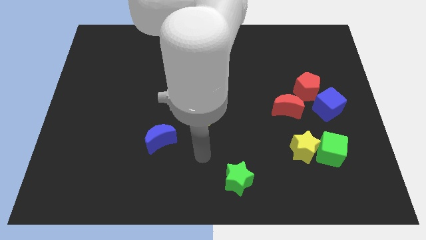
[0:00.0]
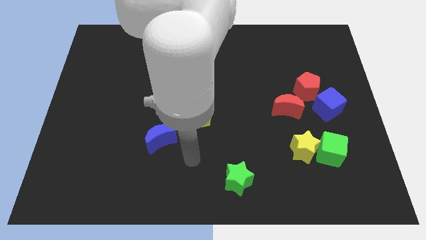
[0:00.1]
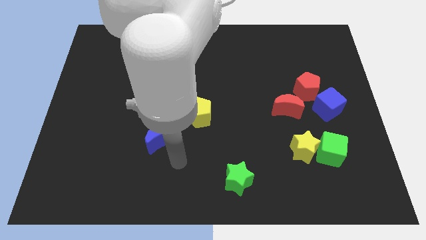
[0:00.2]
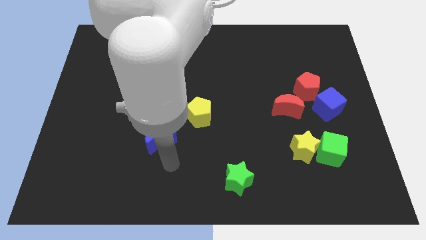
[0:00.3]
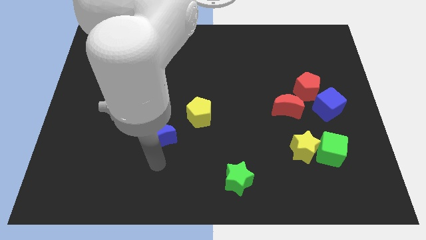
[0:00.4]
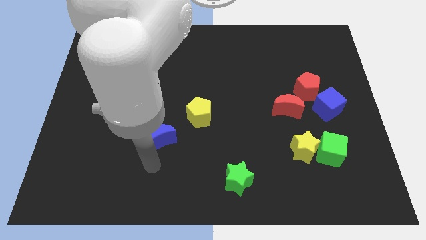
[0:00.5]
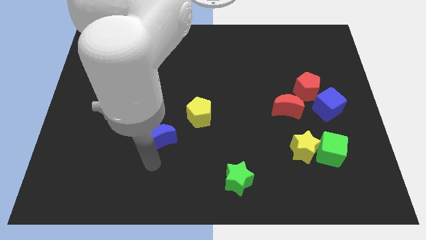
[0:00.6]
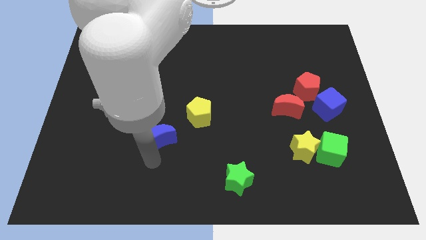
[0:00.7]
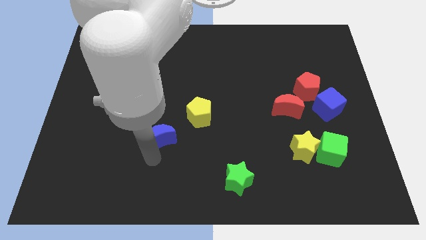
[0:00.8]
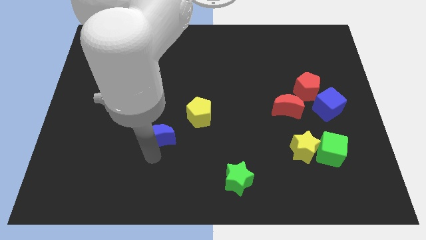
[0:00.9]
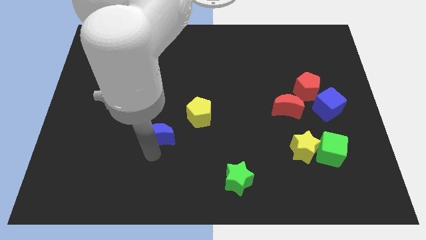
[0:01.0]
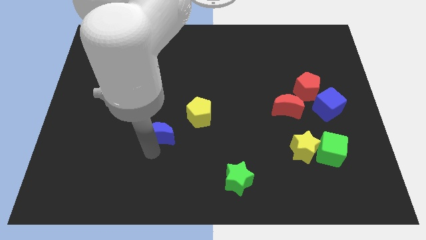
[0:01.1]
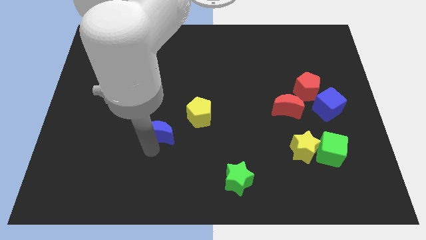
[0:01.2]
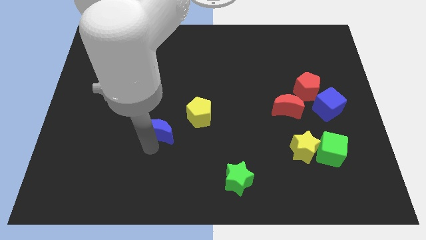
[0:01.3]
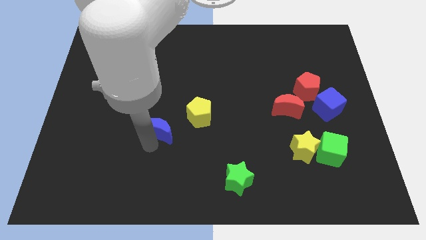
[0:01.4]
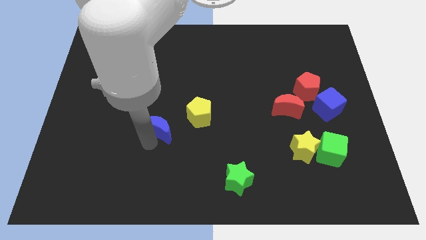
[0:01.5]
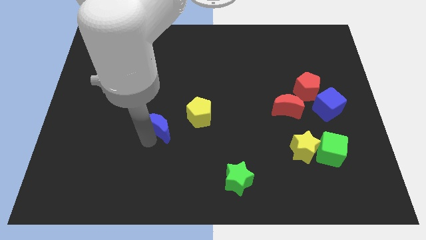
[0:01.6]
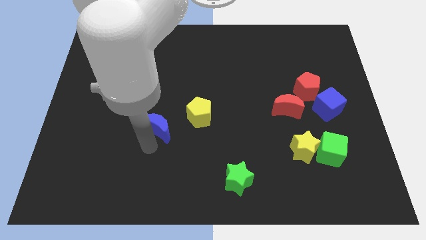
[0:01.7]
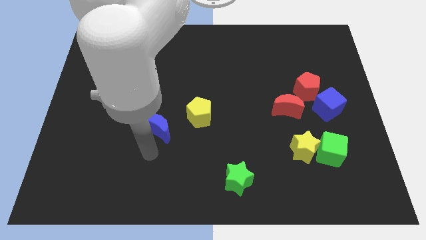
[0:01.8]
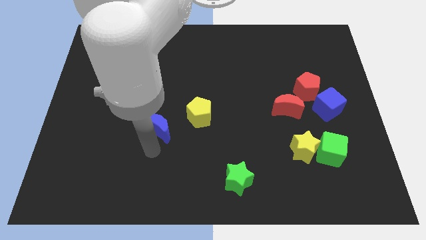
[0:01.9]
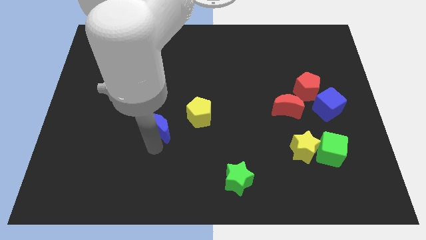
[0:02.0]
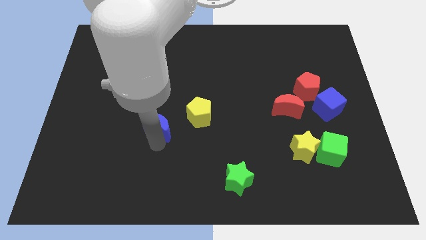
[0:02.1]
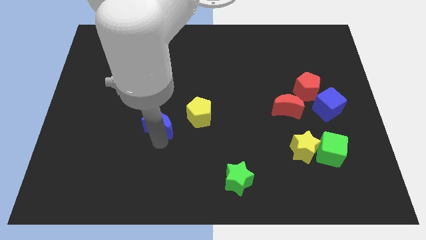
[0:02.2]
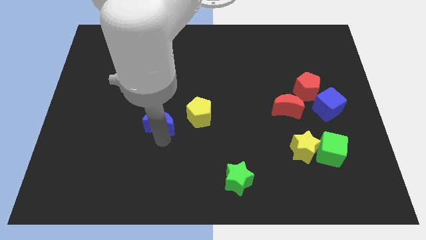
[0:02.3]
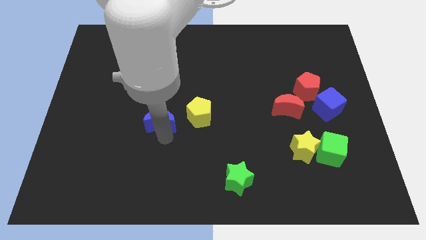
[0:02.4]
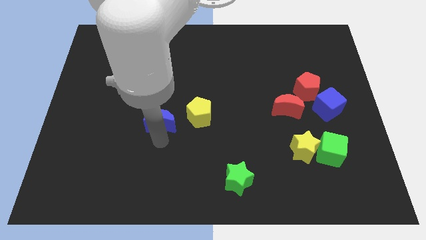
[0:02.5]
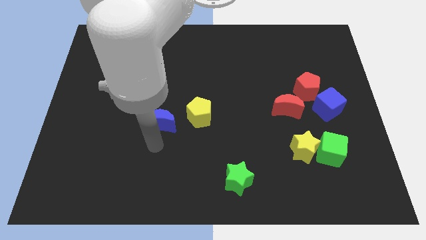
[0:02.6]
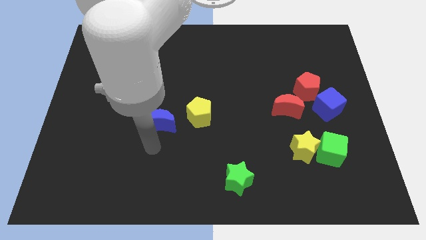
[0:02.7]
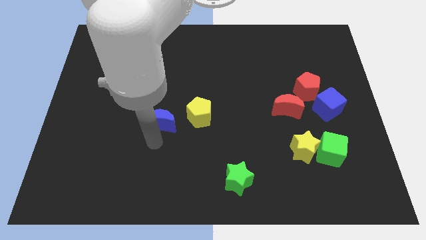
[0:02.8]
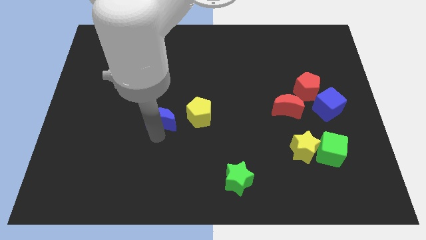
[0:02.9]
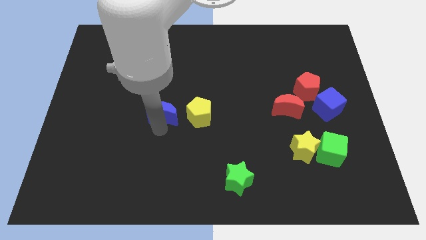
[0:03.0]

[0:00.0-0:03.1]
push the blue moon upwards somewhat

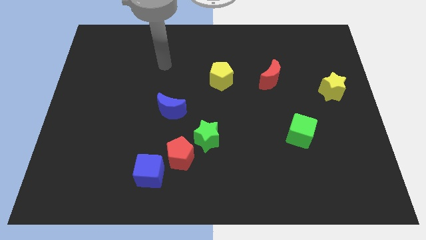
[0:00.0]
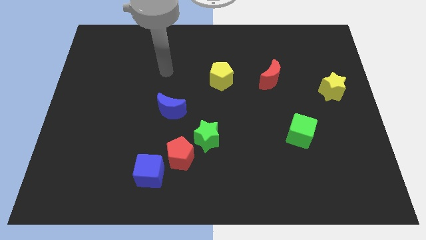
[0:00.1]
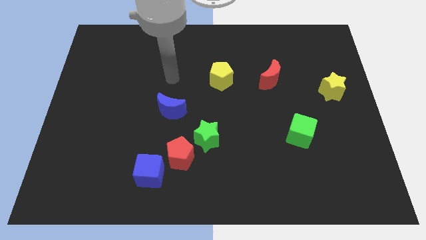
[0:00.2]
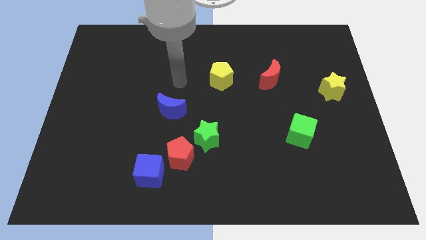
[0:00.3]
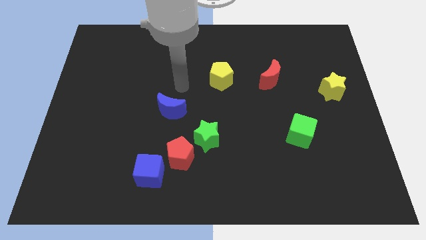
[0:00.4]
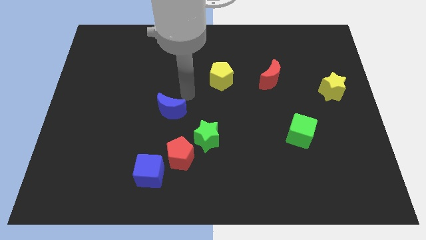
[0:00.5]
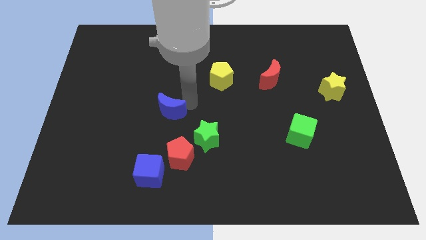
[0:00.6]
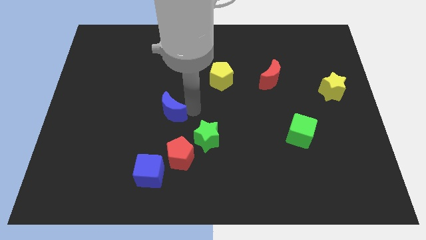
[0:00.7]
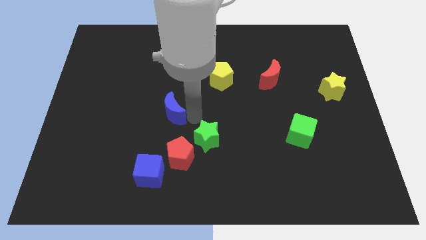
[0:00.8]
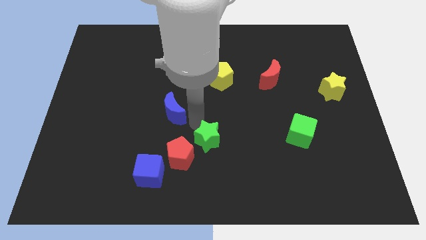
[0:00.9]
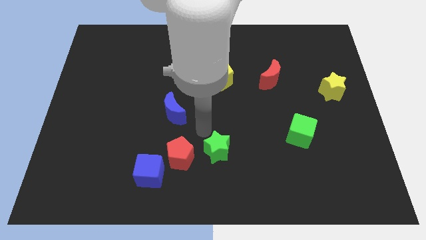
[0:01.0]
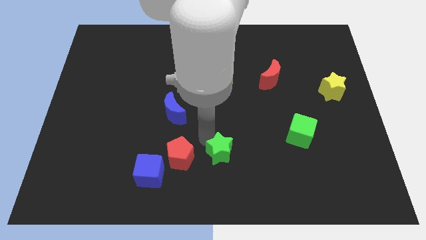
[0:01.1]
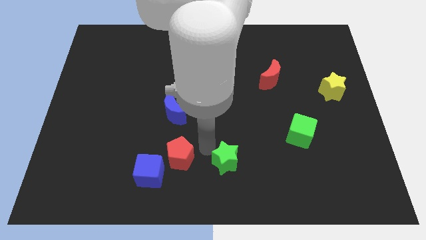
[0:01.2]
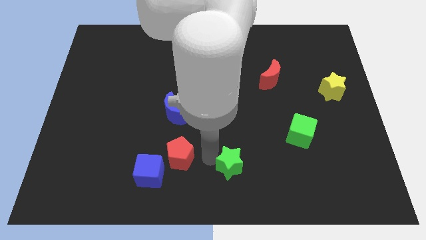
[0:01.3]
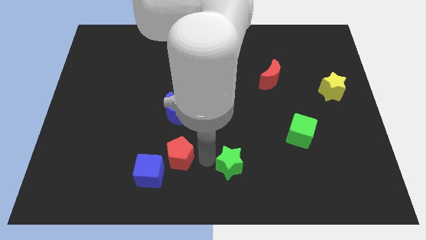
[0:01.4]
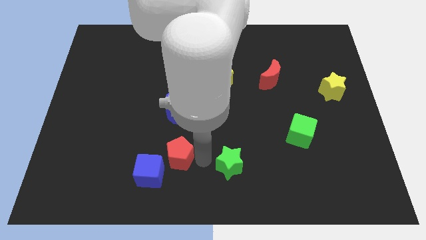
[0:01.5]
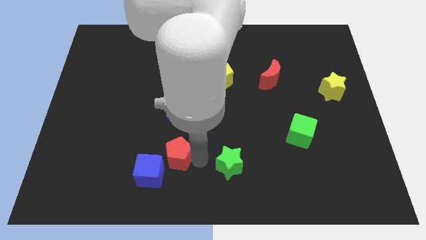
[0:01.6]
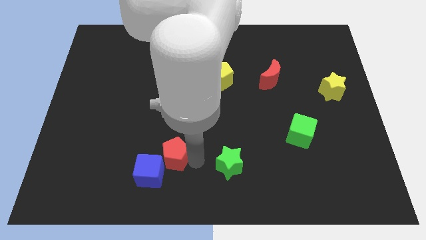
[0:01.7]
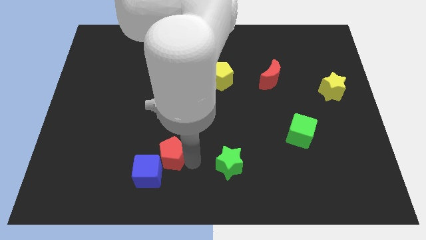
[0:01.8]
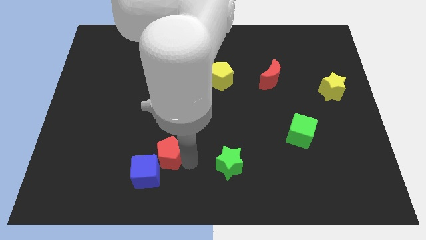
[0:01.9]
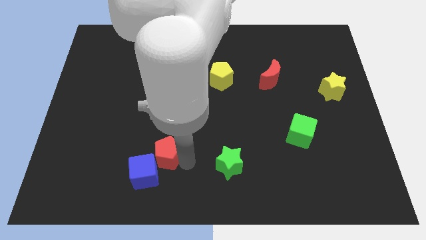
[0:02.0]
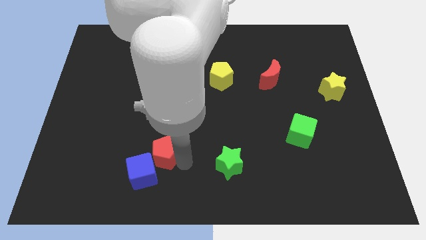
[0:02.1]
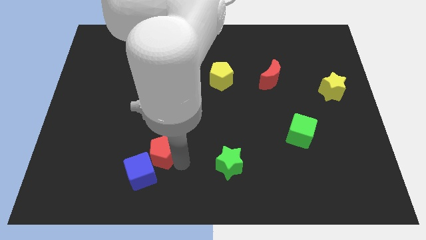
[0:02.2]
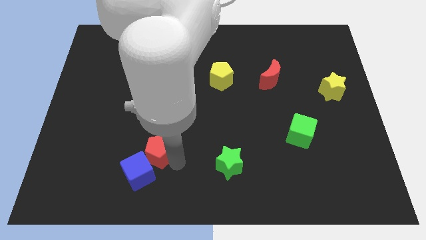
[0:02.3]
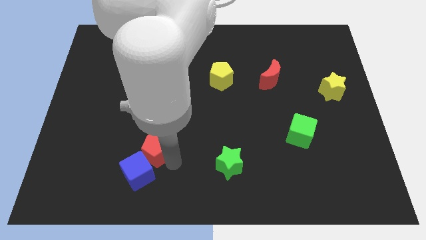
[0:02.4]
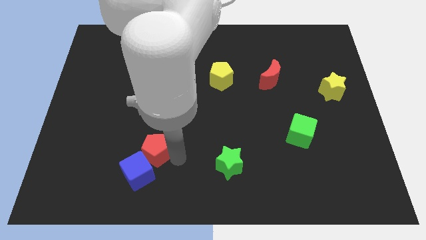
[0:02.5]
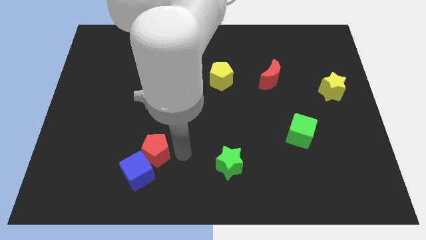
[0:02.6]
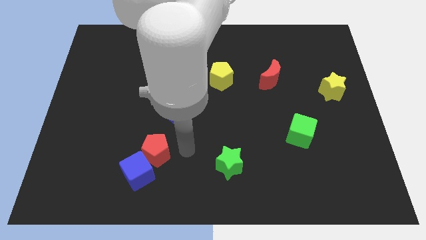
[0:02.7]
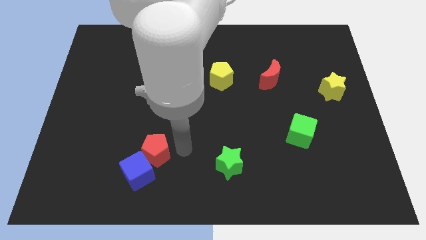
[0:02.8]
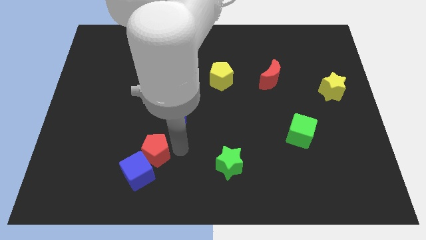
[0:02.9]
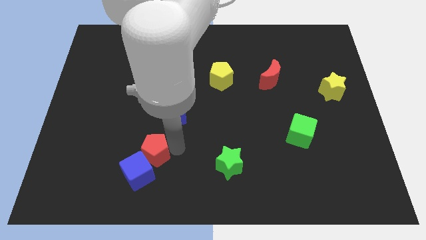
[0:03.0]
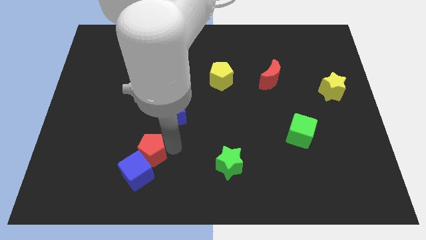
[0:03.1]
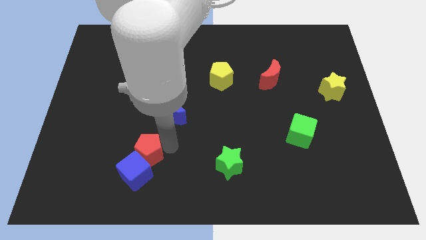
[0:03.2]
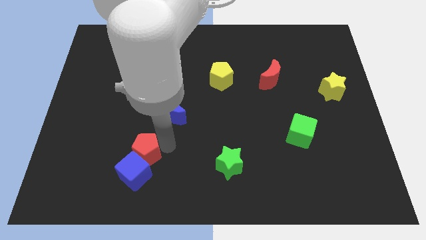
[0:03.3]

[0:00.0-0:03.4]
slightly move the red pentagon left

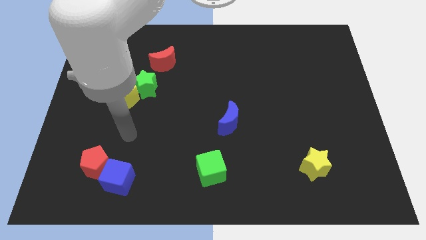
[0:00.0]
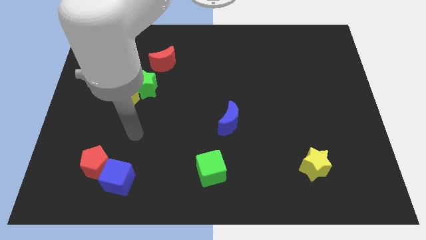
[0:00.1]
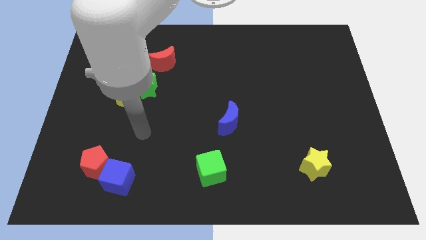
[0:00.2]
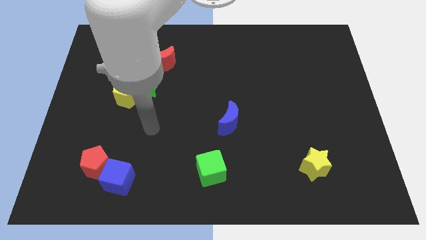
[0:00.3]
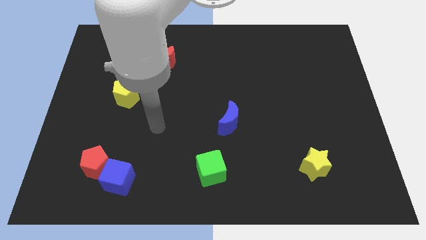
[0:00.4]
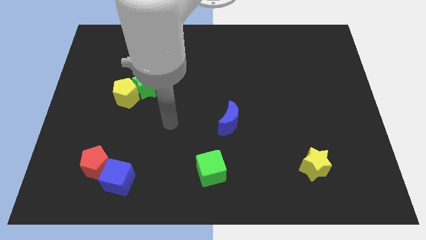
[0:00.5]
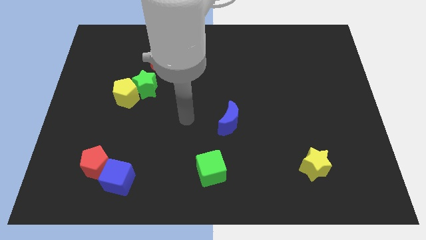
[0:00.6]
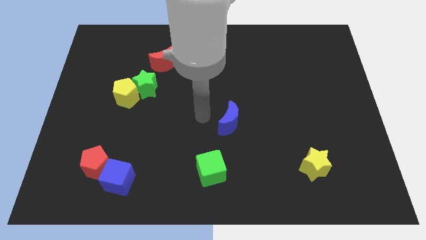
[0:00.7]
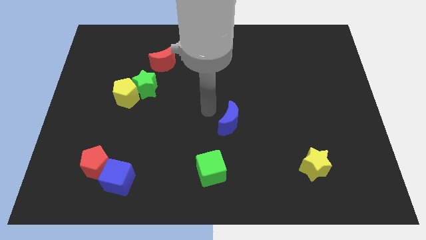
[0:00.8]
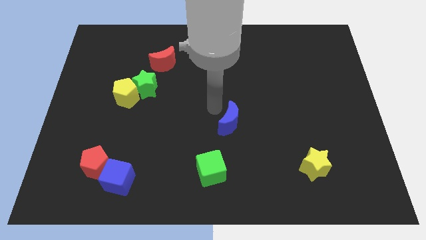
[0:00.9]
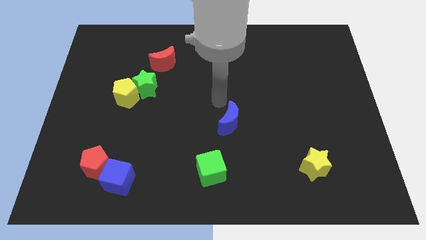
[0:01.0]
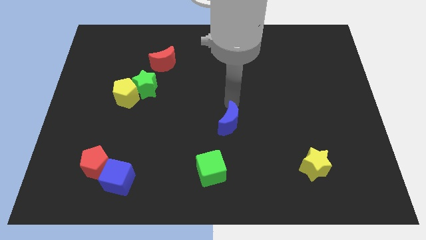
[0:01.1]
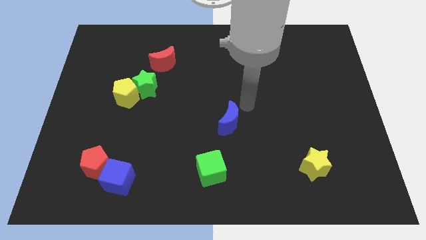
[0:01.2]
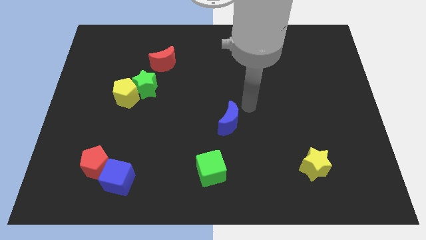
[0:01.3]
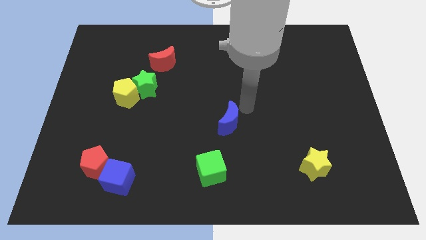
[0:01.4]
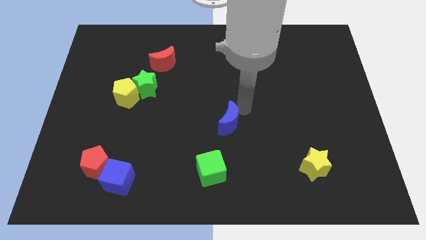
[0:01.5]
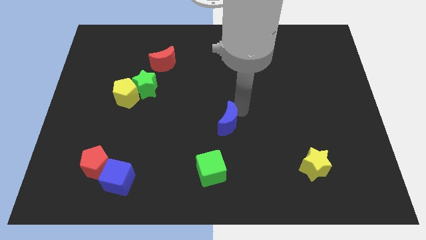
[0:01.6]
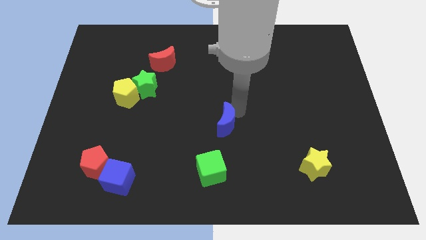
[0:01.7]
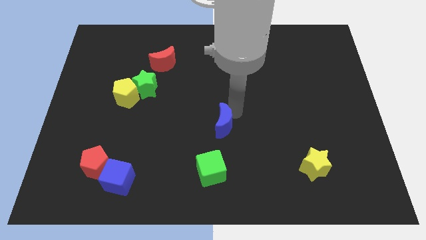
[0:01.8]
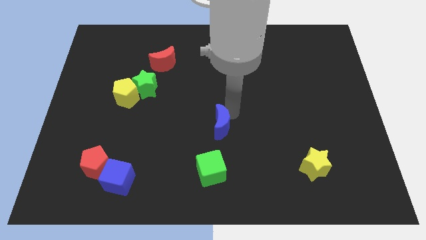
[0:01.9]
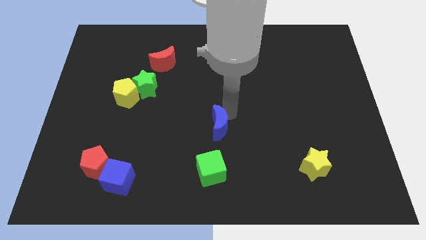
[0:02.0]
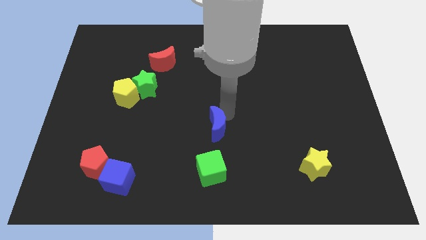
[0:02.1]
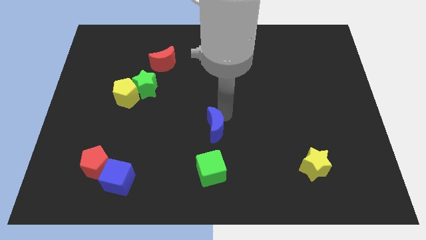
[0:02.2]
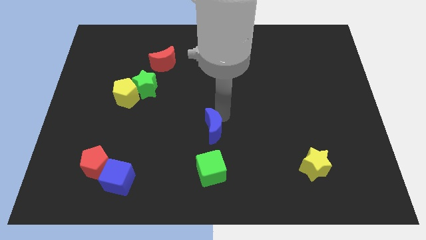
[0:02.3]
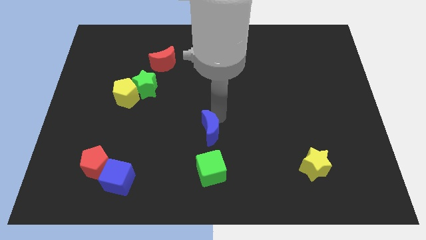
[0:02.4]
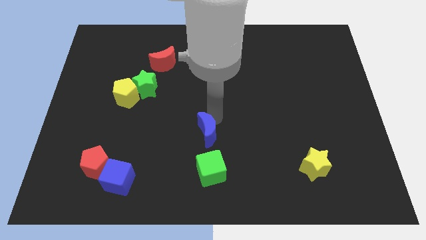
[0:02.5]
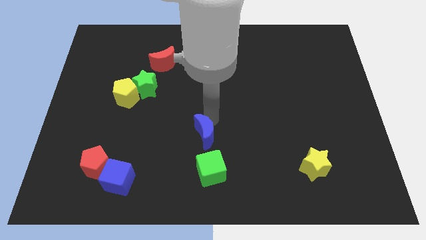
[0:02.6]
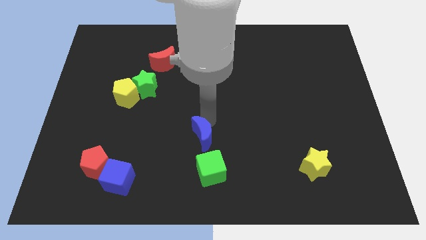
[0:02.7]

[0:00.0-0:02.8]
push the blue moon downwards and to the left diagonally somewhat
